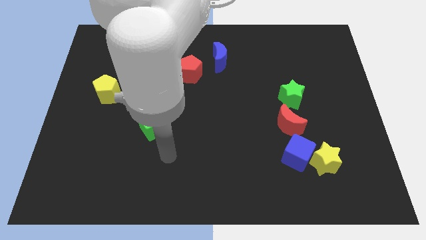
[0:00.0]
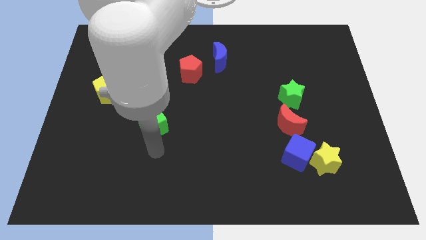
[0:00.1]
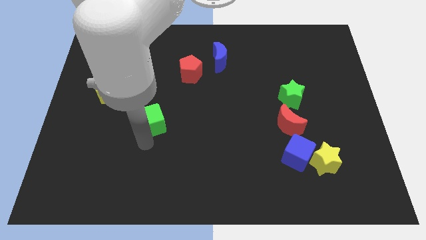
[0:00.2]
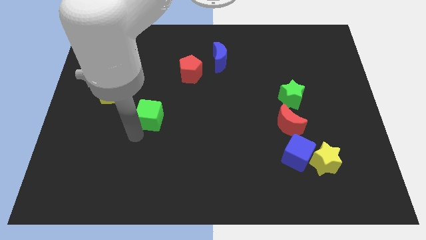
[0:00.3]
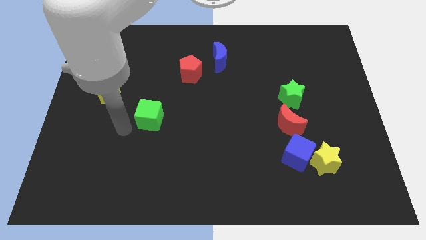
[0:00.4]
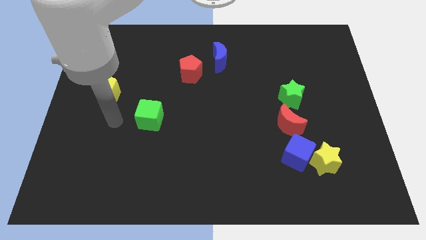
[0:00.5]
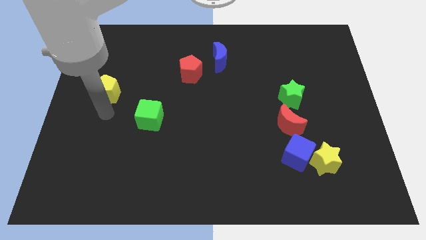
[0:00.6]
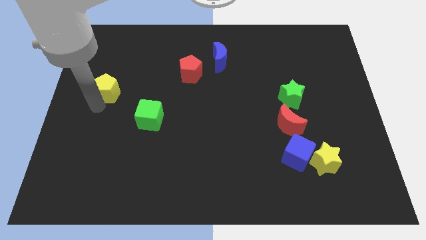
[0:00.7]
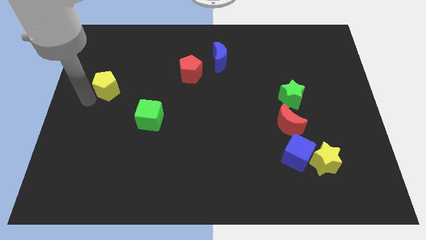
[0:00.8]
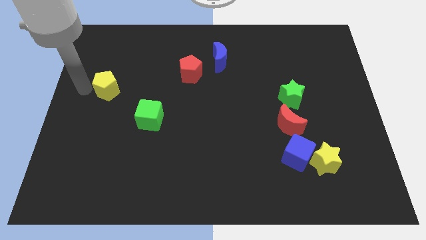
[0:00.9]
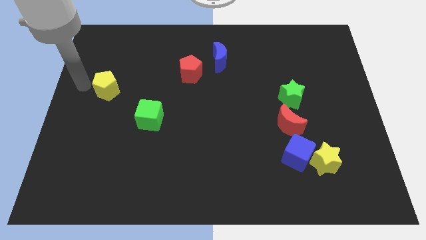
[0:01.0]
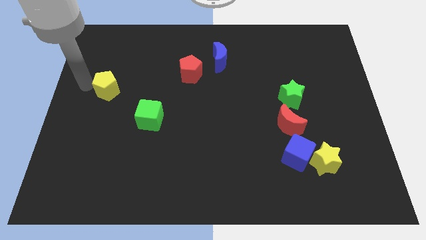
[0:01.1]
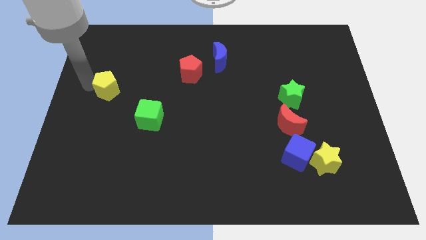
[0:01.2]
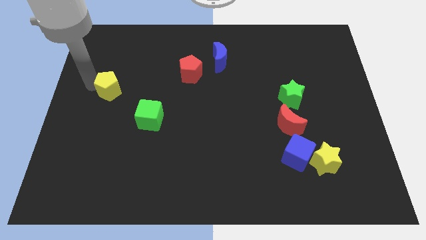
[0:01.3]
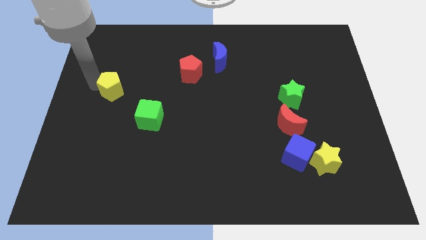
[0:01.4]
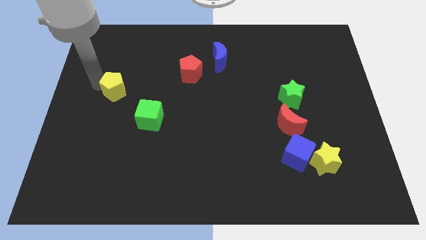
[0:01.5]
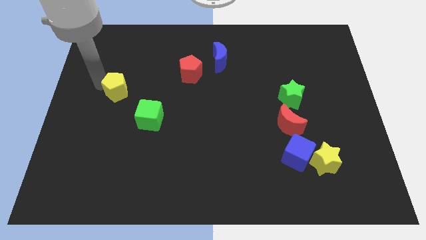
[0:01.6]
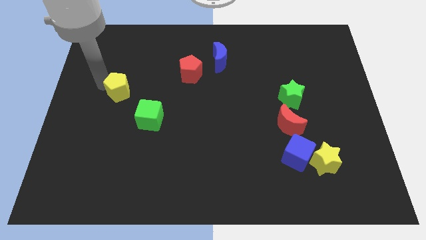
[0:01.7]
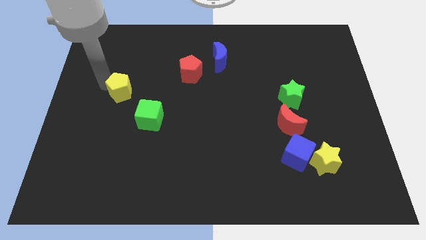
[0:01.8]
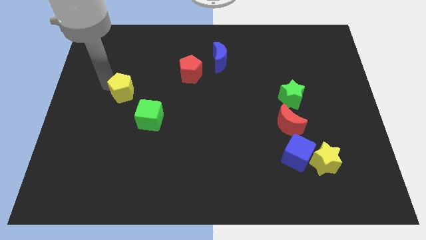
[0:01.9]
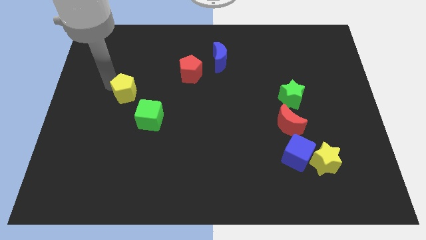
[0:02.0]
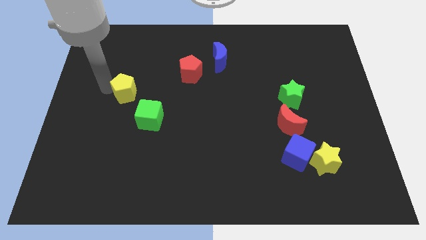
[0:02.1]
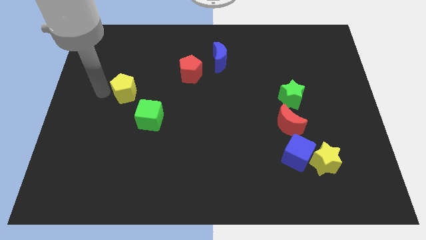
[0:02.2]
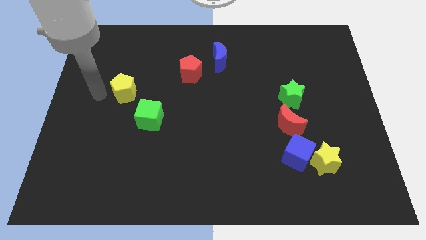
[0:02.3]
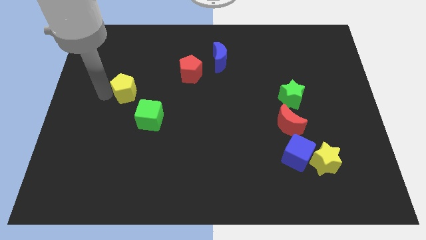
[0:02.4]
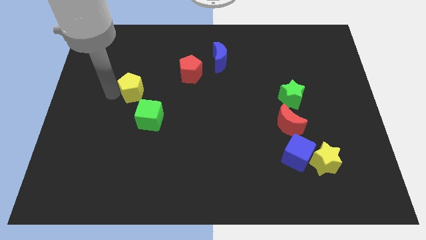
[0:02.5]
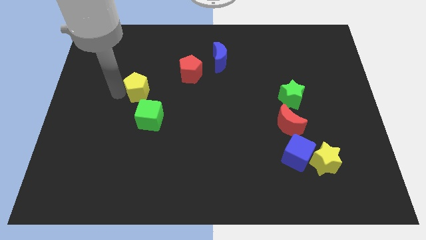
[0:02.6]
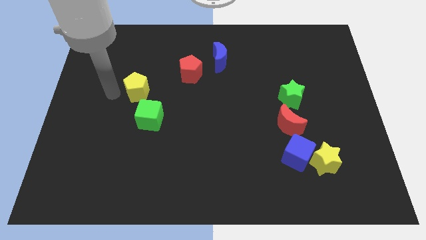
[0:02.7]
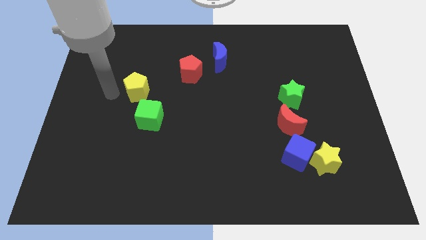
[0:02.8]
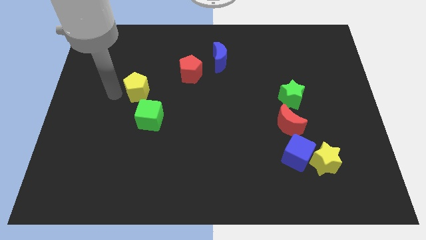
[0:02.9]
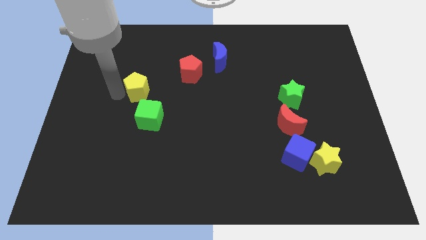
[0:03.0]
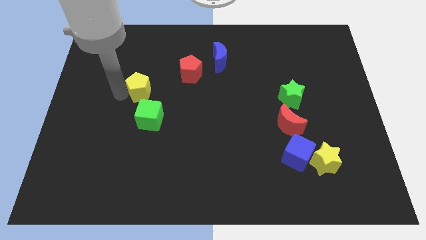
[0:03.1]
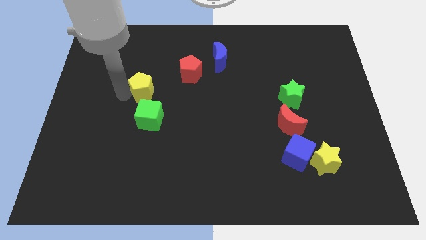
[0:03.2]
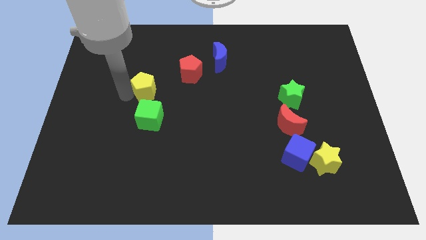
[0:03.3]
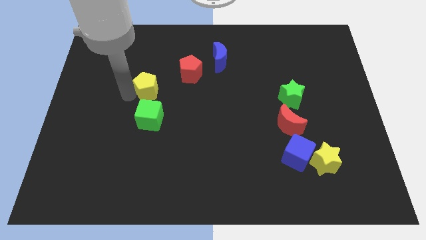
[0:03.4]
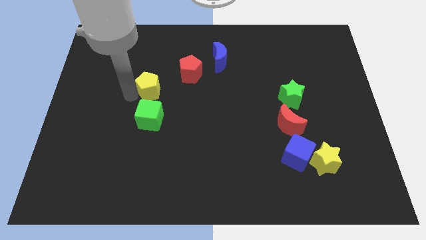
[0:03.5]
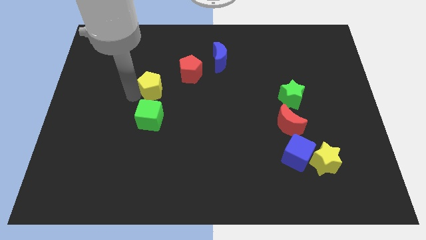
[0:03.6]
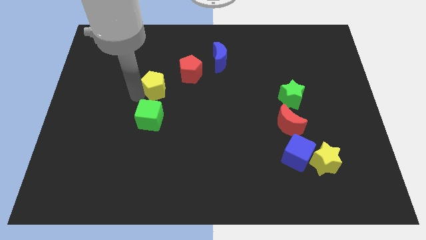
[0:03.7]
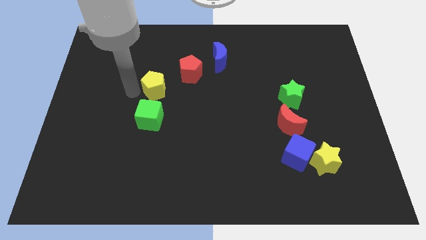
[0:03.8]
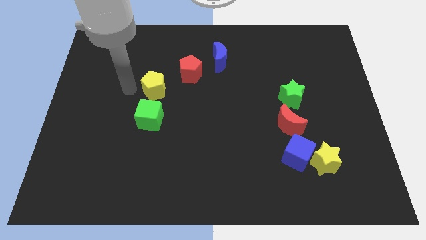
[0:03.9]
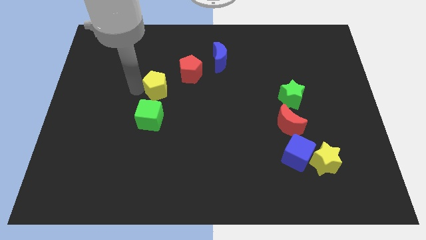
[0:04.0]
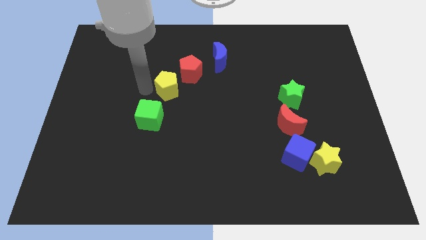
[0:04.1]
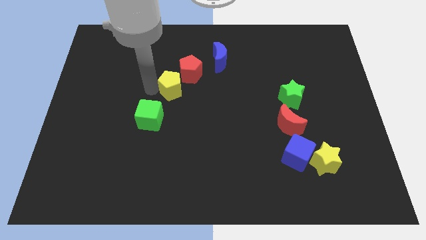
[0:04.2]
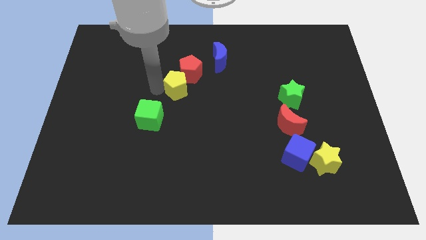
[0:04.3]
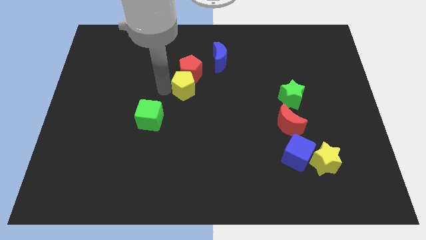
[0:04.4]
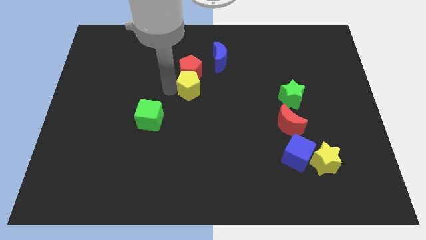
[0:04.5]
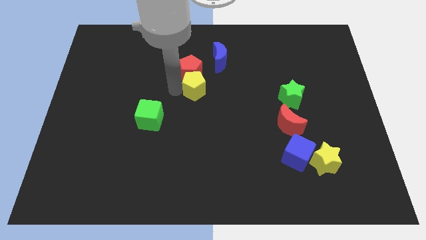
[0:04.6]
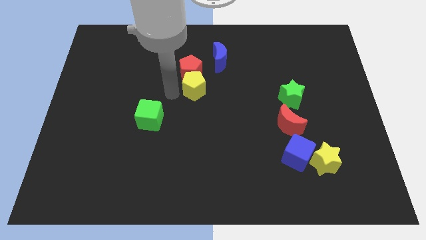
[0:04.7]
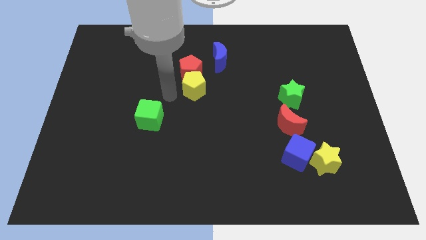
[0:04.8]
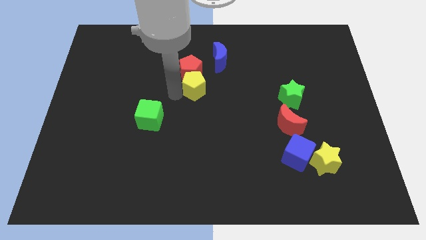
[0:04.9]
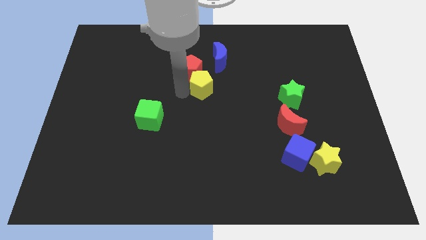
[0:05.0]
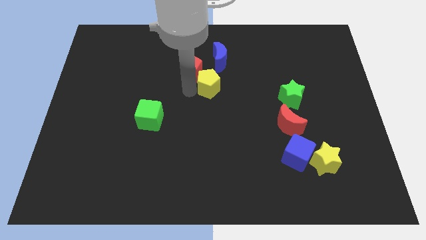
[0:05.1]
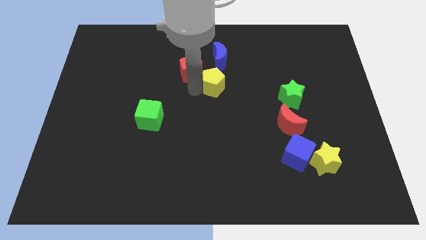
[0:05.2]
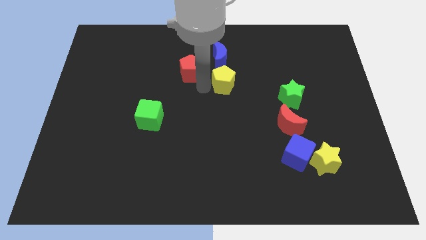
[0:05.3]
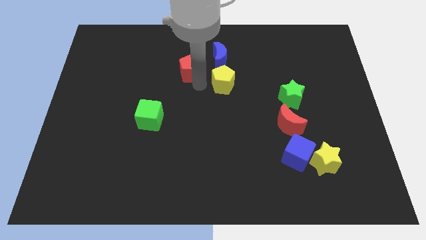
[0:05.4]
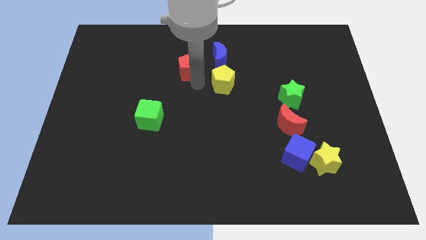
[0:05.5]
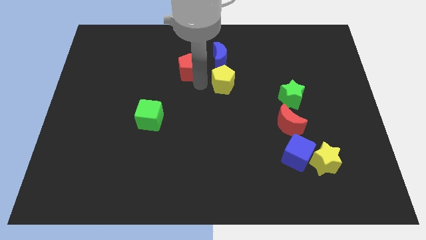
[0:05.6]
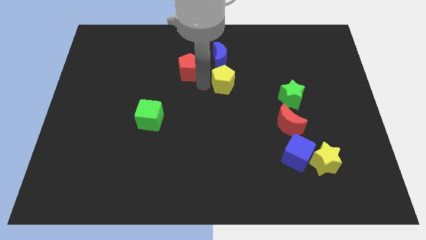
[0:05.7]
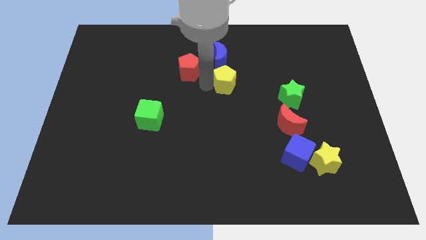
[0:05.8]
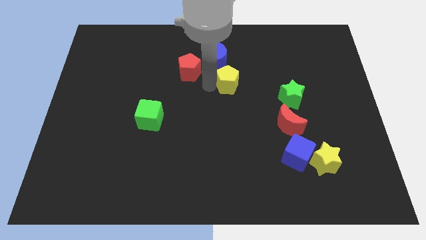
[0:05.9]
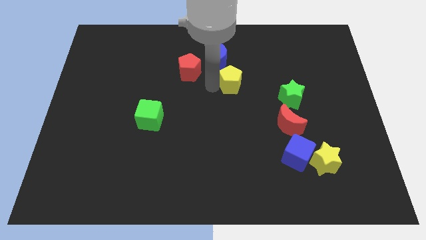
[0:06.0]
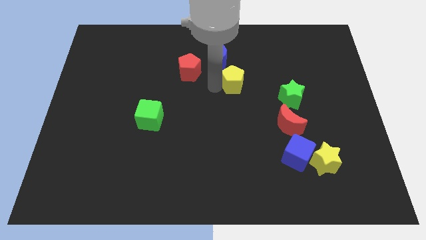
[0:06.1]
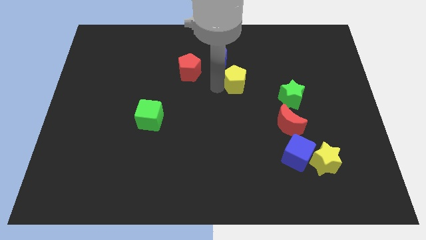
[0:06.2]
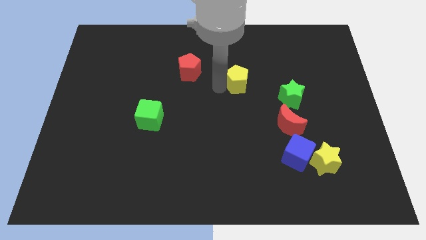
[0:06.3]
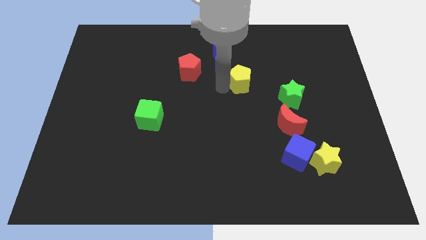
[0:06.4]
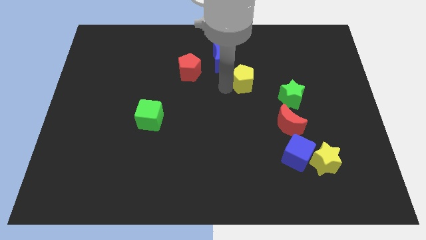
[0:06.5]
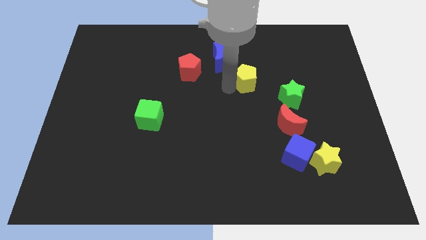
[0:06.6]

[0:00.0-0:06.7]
slide the yellow pentagon diagonally up and to the left of the green star
